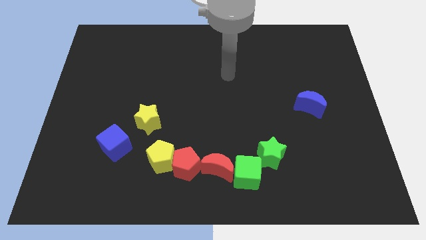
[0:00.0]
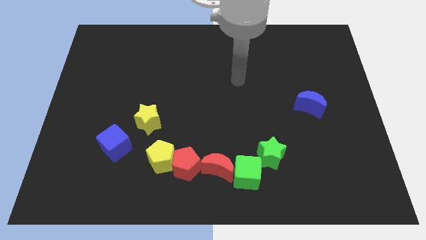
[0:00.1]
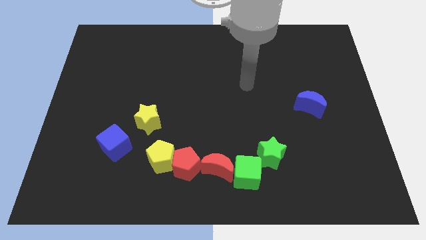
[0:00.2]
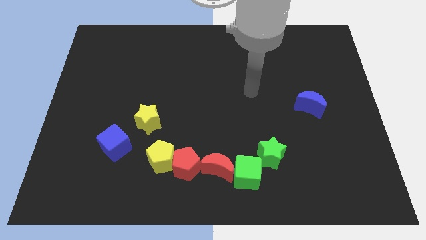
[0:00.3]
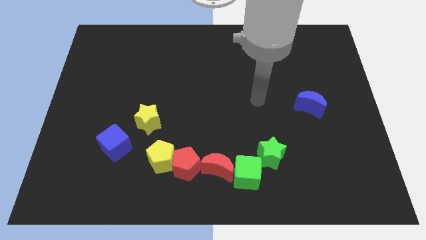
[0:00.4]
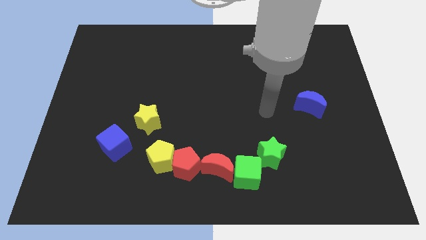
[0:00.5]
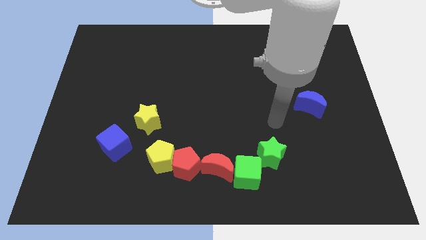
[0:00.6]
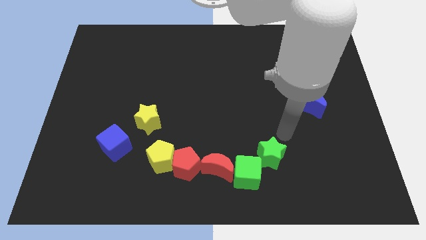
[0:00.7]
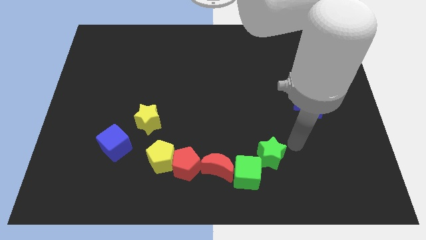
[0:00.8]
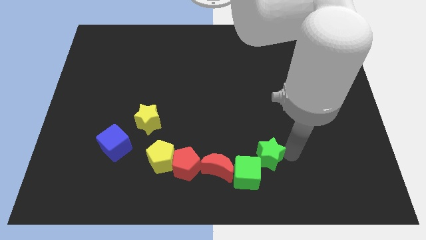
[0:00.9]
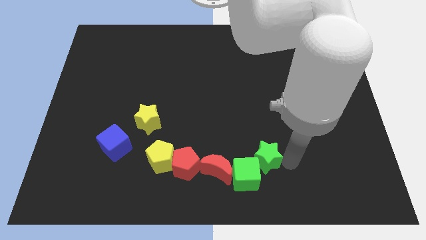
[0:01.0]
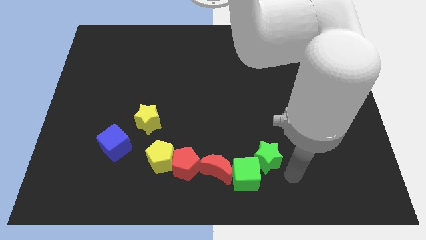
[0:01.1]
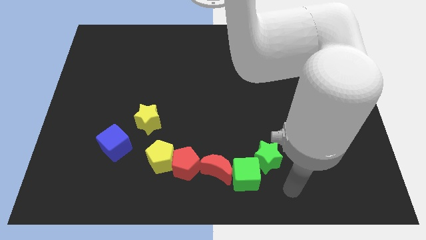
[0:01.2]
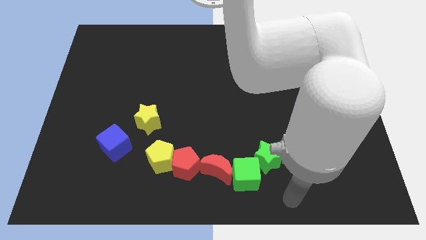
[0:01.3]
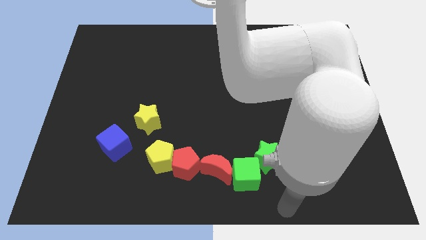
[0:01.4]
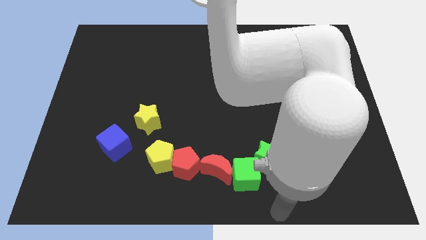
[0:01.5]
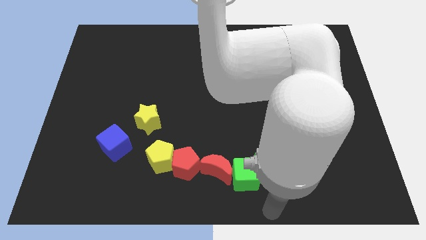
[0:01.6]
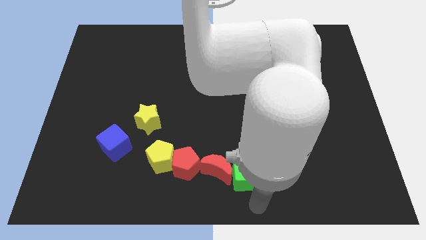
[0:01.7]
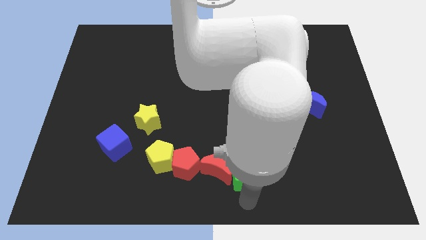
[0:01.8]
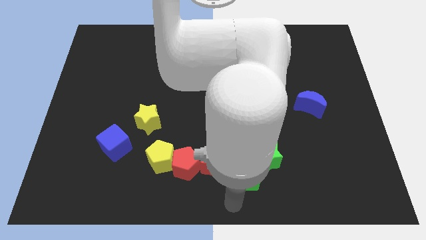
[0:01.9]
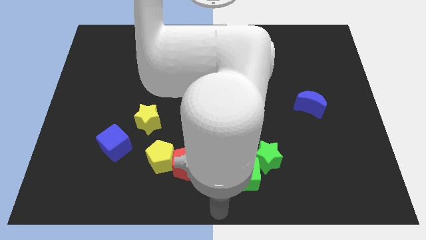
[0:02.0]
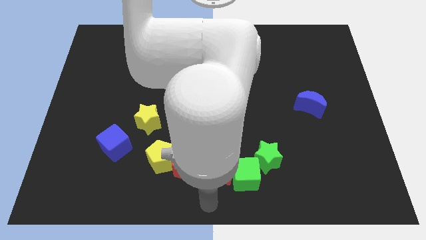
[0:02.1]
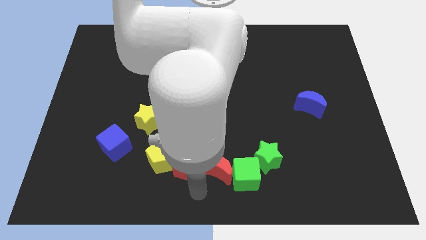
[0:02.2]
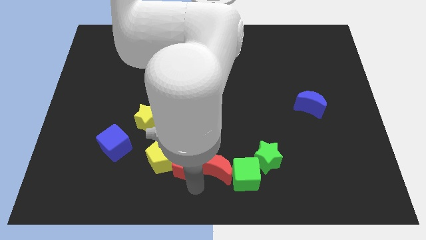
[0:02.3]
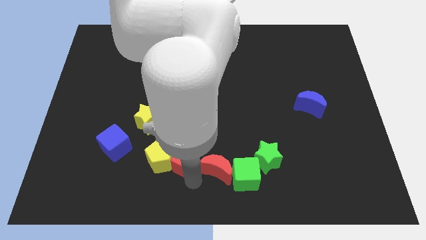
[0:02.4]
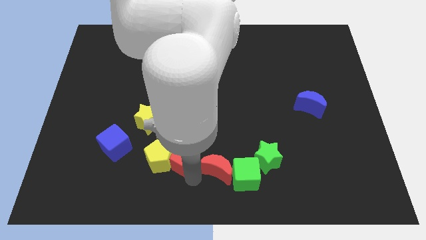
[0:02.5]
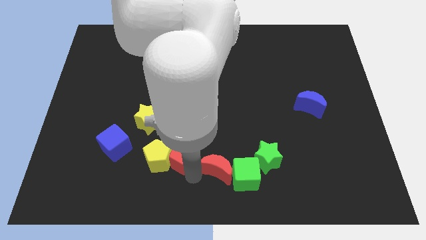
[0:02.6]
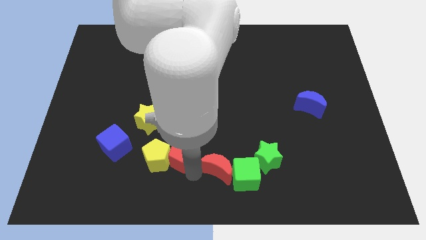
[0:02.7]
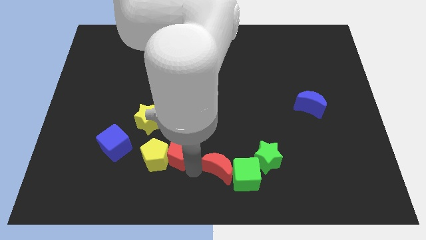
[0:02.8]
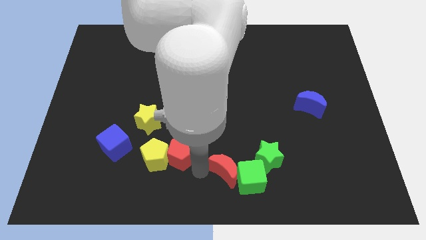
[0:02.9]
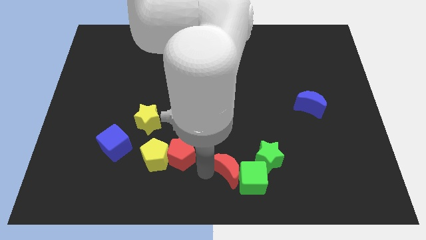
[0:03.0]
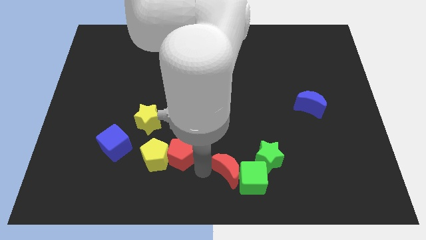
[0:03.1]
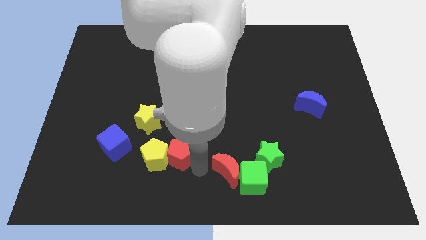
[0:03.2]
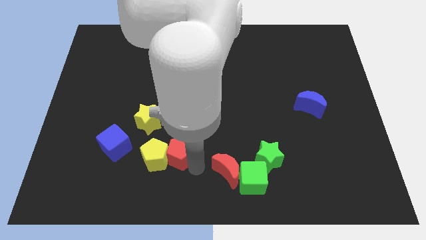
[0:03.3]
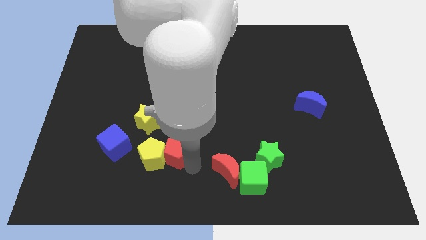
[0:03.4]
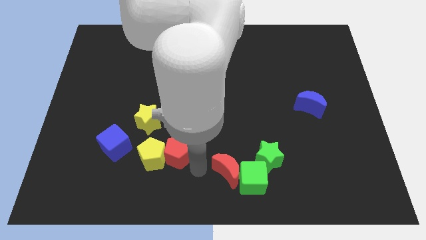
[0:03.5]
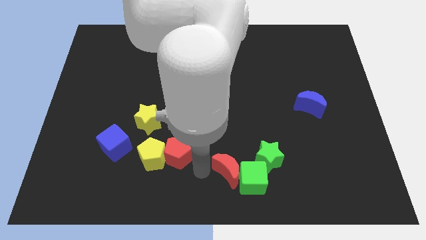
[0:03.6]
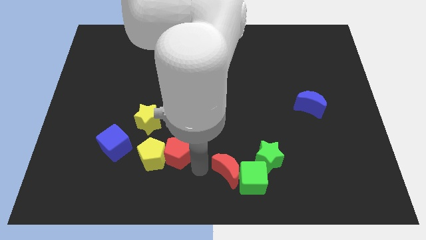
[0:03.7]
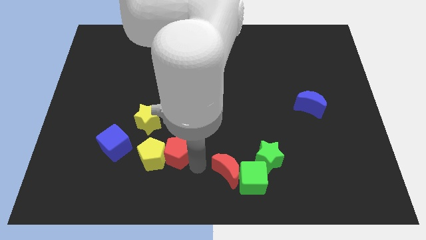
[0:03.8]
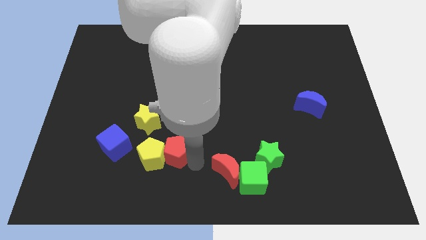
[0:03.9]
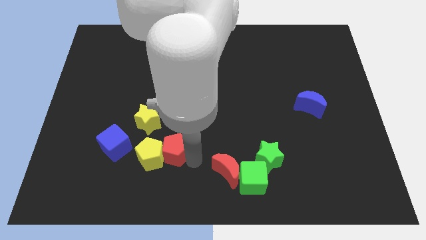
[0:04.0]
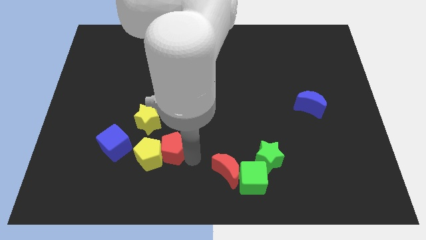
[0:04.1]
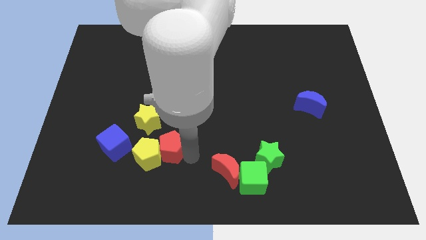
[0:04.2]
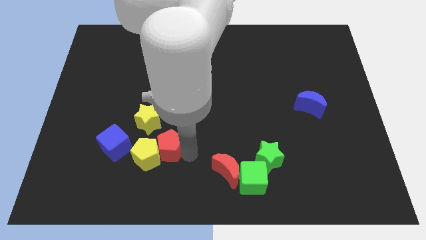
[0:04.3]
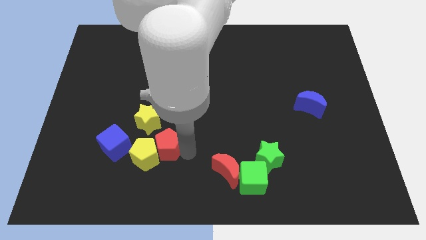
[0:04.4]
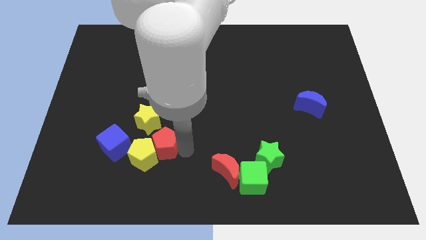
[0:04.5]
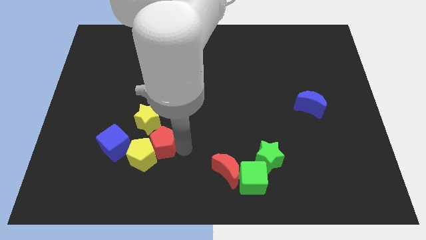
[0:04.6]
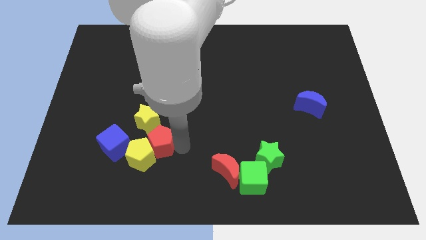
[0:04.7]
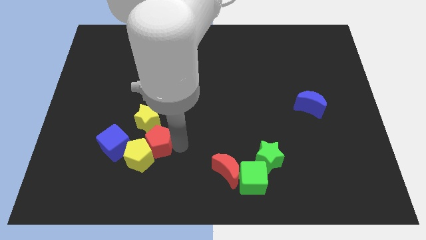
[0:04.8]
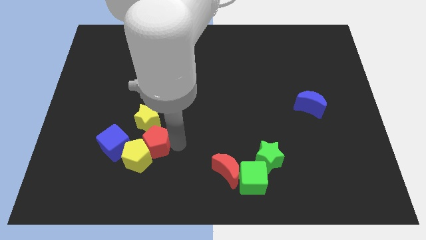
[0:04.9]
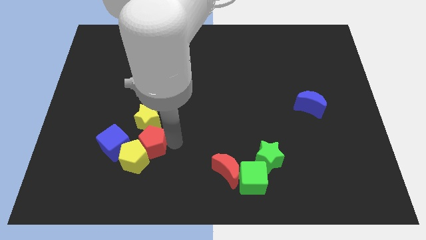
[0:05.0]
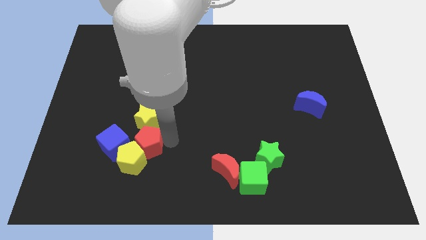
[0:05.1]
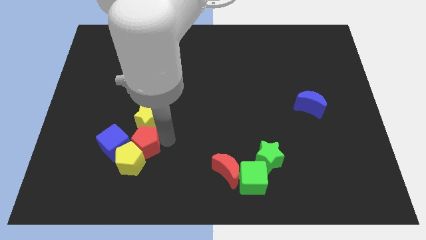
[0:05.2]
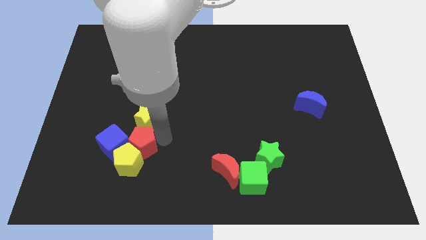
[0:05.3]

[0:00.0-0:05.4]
slide the red pentagon next to the blue cube
